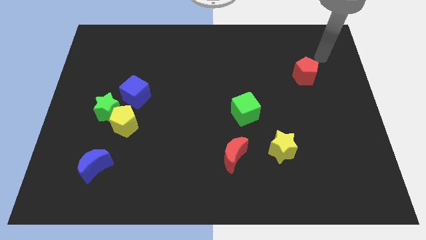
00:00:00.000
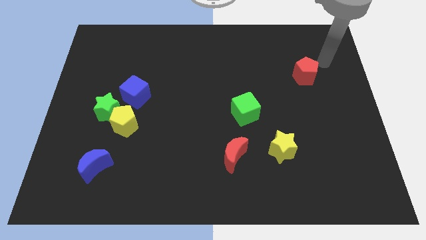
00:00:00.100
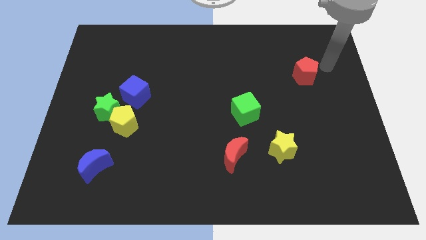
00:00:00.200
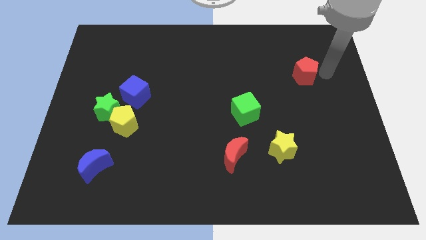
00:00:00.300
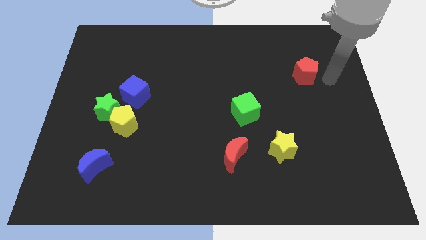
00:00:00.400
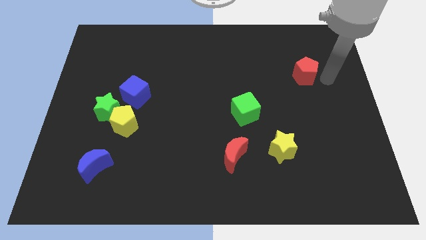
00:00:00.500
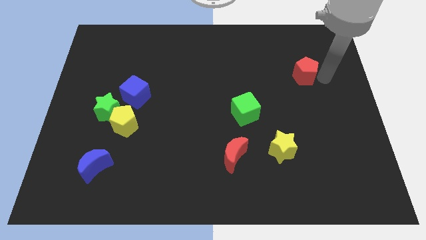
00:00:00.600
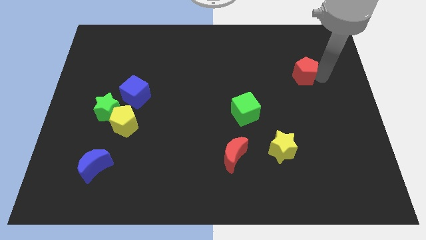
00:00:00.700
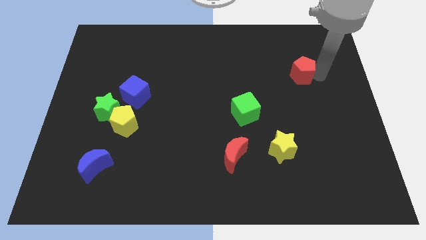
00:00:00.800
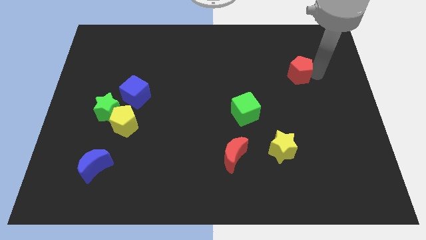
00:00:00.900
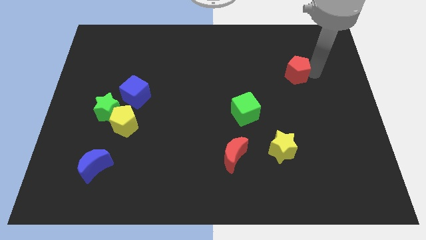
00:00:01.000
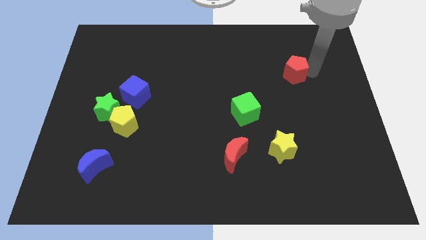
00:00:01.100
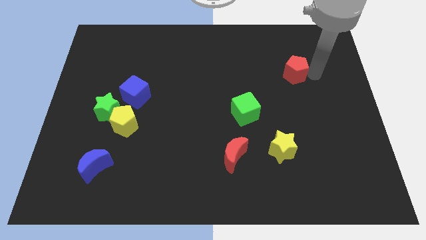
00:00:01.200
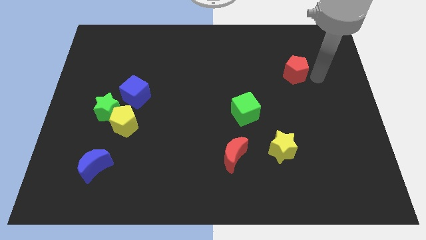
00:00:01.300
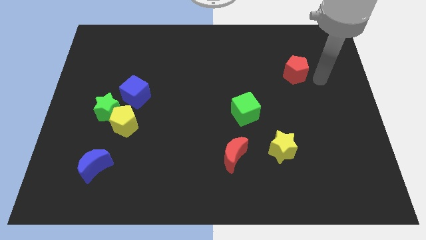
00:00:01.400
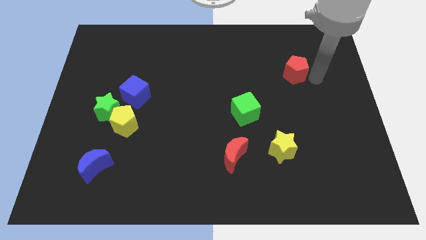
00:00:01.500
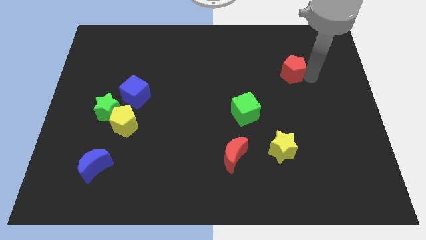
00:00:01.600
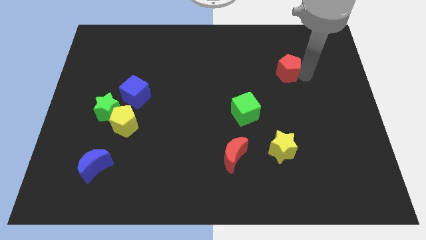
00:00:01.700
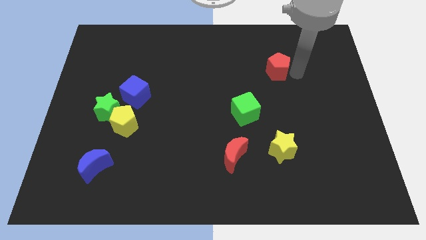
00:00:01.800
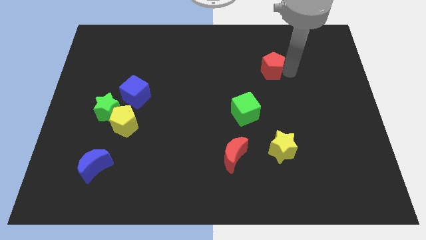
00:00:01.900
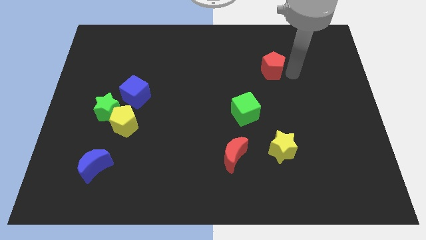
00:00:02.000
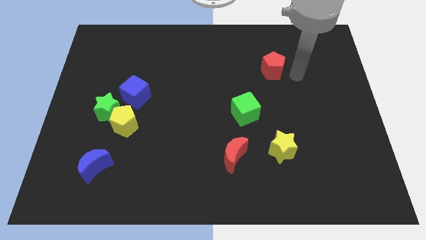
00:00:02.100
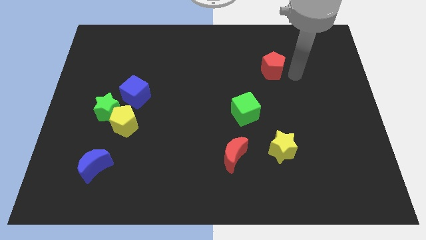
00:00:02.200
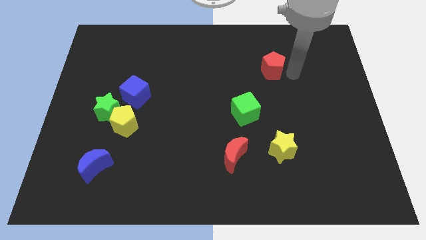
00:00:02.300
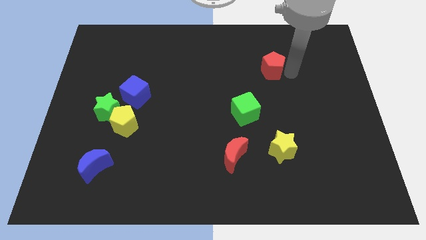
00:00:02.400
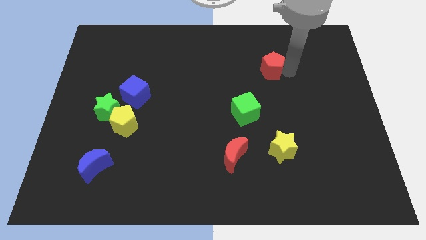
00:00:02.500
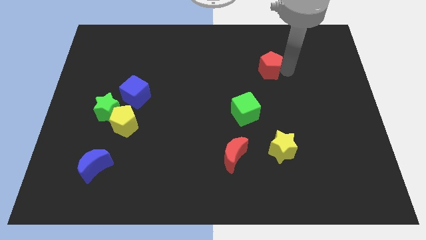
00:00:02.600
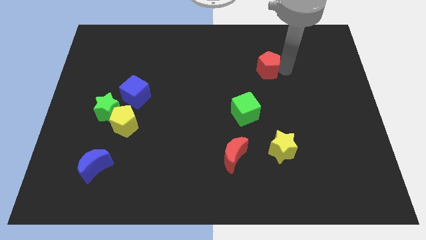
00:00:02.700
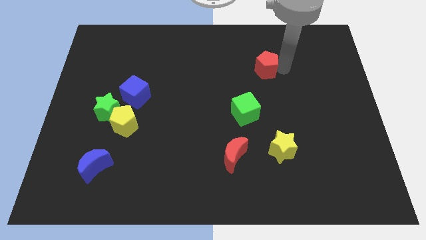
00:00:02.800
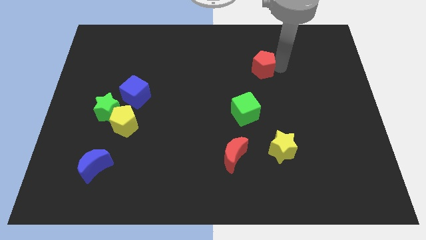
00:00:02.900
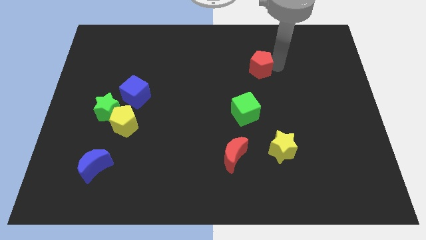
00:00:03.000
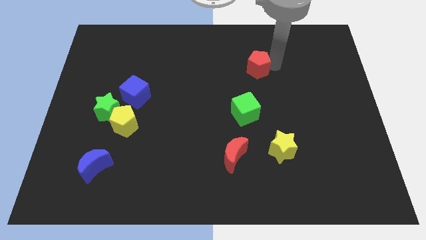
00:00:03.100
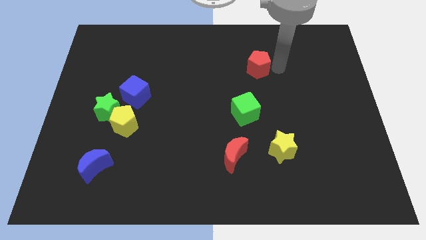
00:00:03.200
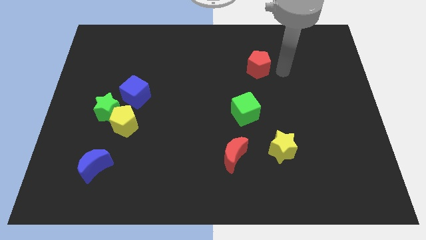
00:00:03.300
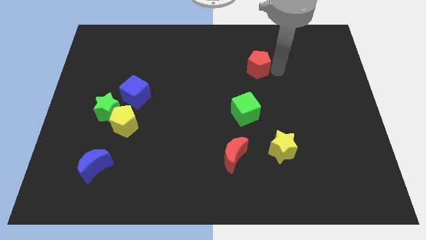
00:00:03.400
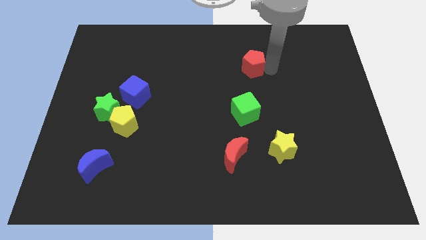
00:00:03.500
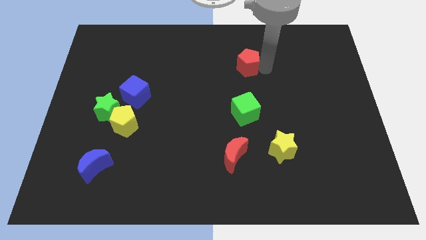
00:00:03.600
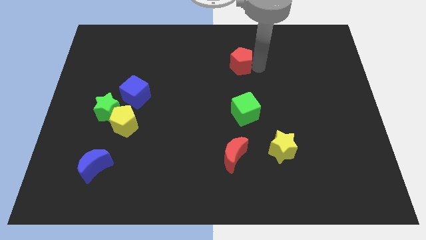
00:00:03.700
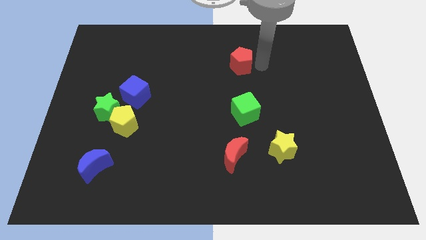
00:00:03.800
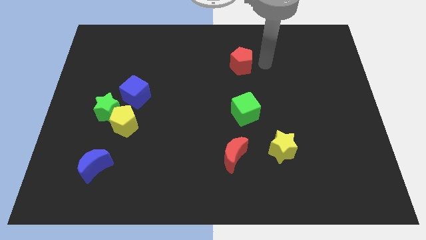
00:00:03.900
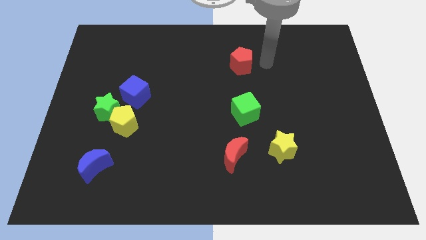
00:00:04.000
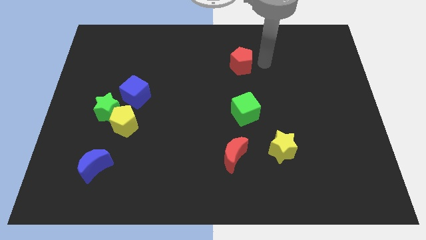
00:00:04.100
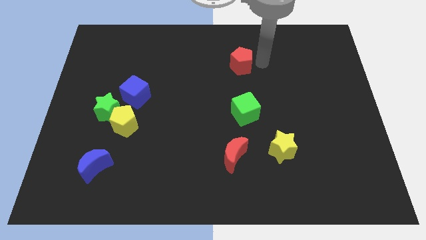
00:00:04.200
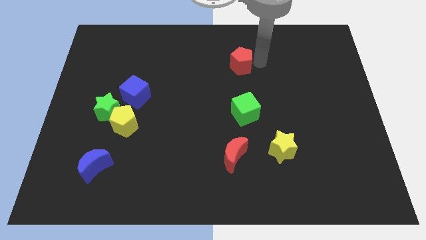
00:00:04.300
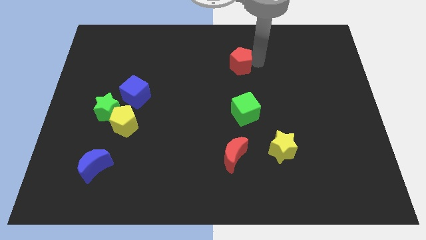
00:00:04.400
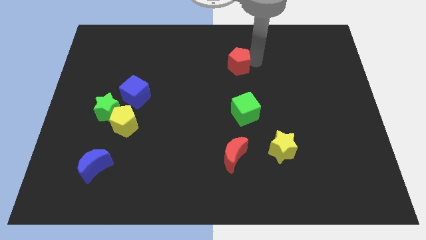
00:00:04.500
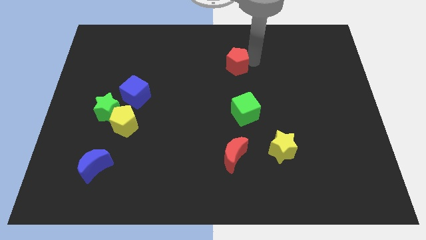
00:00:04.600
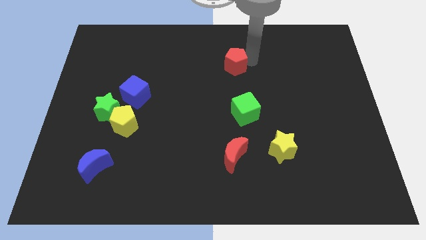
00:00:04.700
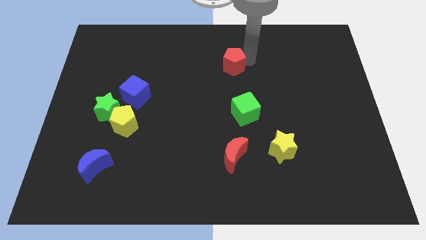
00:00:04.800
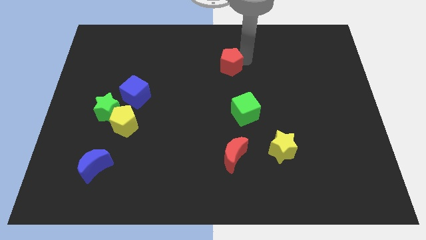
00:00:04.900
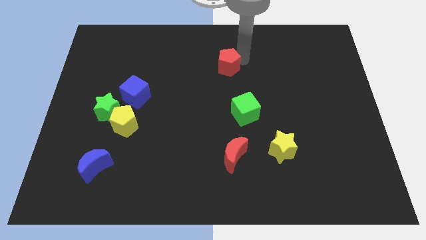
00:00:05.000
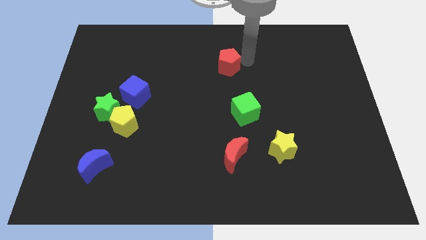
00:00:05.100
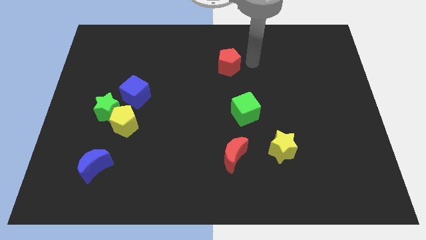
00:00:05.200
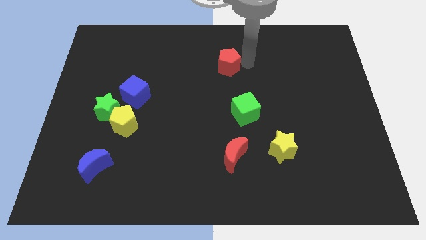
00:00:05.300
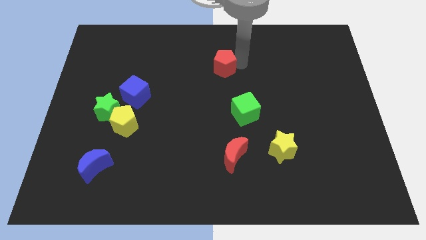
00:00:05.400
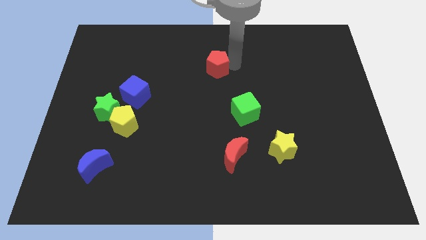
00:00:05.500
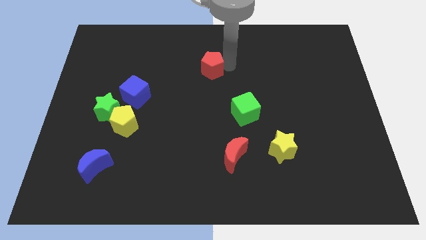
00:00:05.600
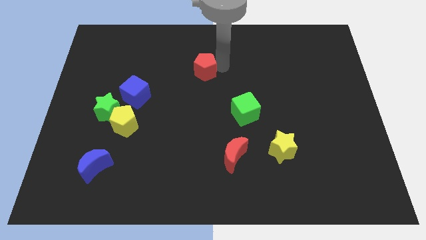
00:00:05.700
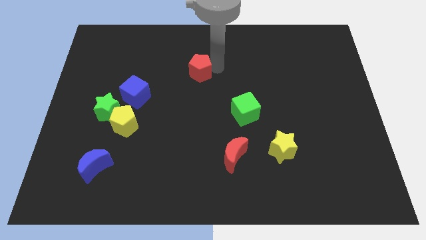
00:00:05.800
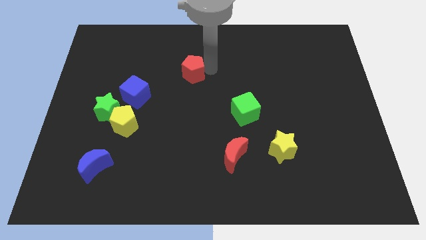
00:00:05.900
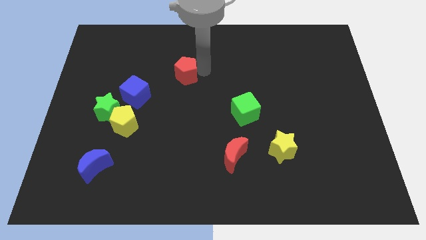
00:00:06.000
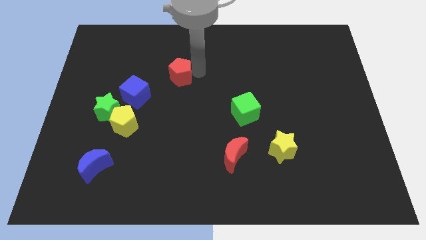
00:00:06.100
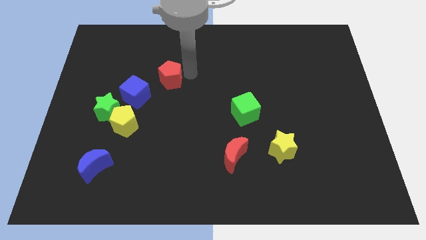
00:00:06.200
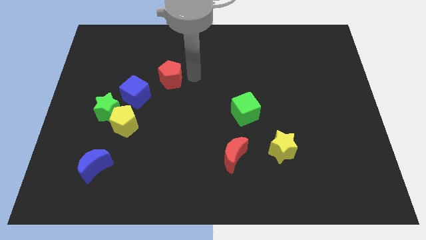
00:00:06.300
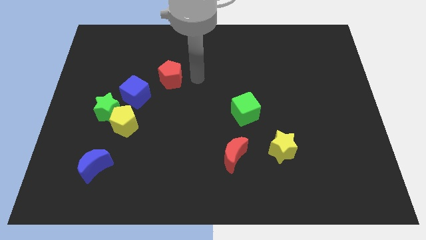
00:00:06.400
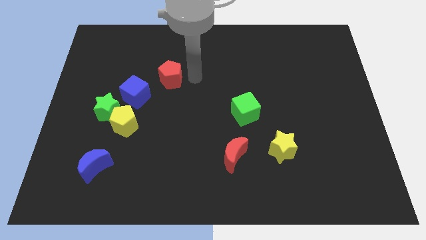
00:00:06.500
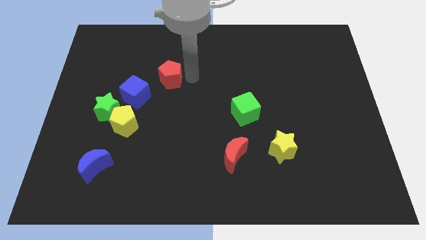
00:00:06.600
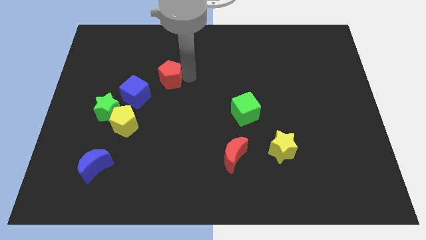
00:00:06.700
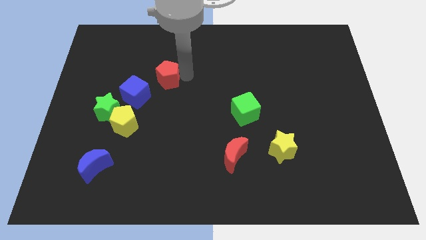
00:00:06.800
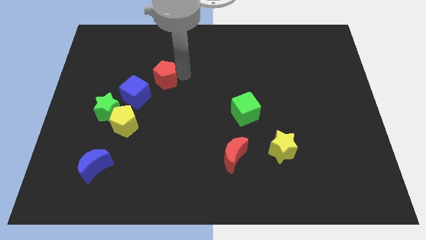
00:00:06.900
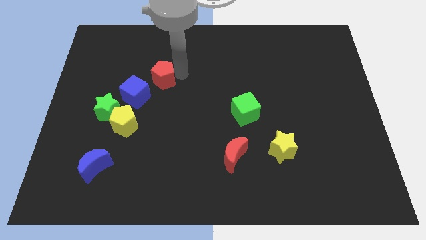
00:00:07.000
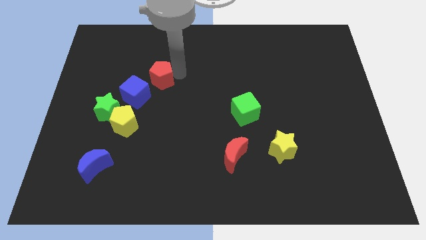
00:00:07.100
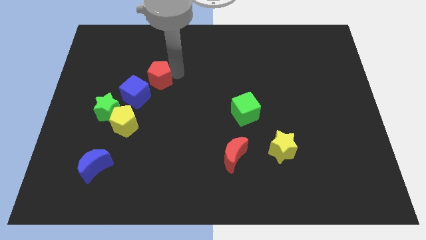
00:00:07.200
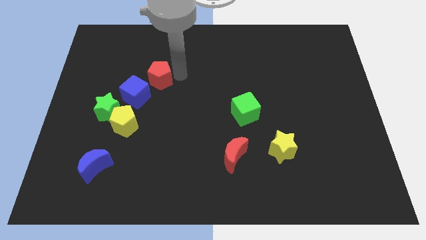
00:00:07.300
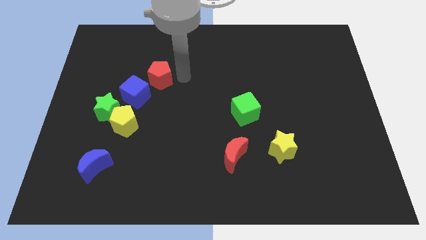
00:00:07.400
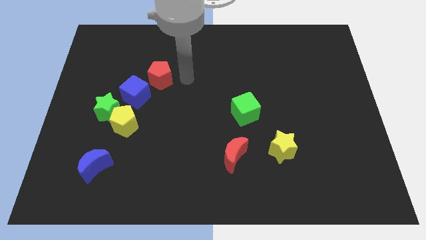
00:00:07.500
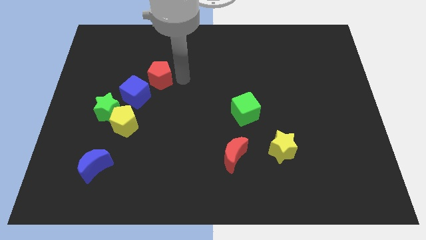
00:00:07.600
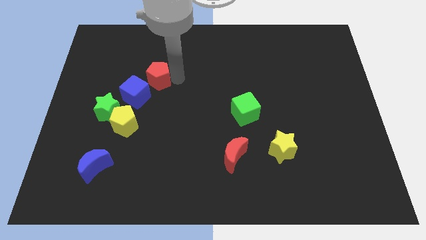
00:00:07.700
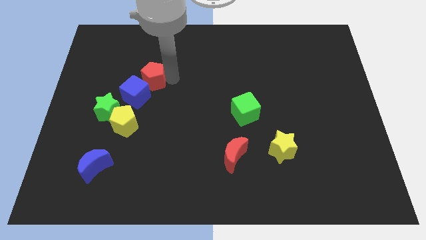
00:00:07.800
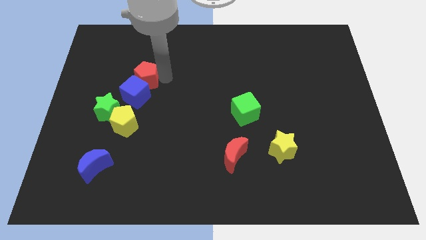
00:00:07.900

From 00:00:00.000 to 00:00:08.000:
push the red pentagon to the top side of the yellow pentagon

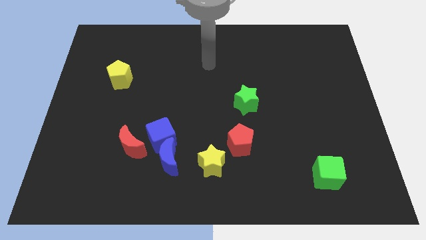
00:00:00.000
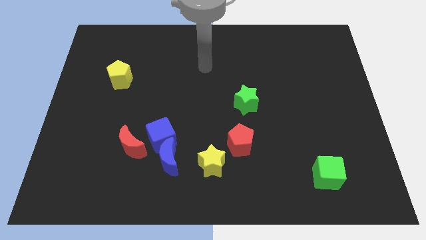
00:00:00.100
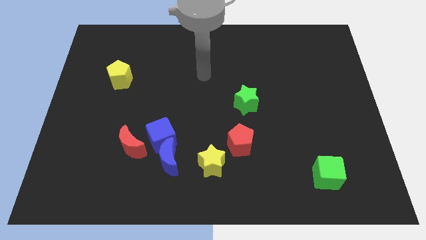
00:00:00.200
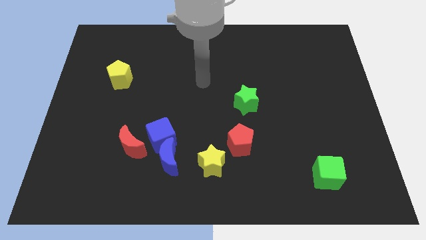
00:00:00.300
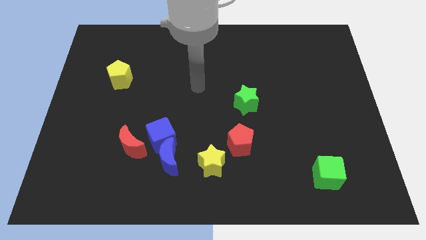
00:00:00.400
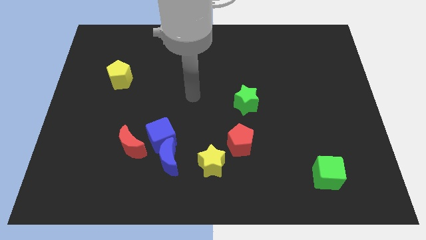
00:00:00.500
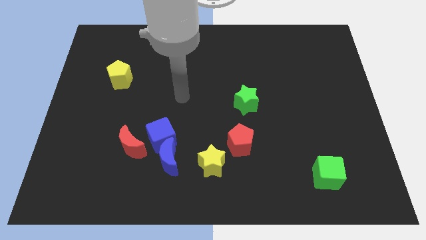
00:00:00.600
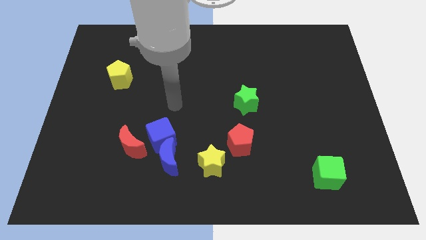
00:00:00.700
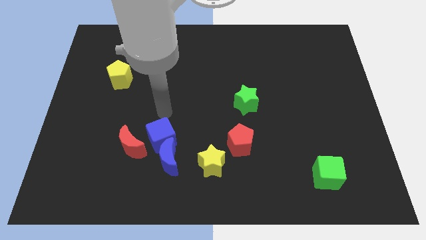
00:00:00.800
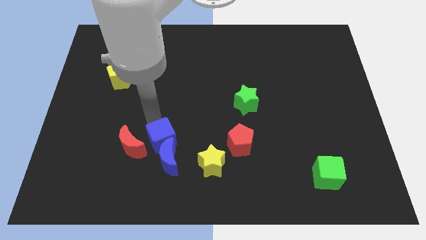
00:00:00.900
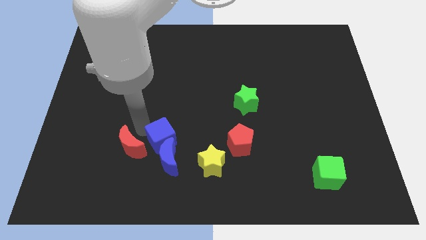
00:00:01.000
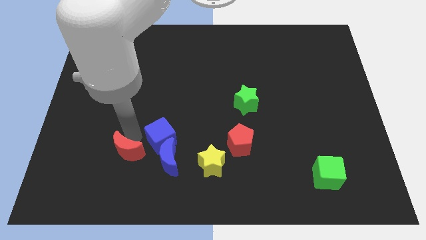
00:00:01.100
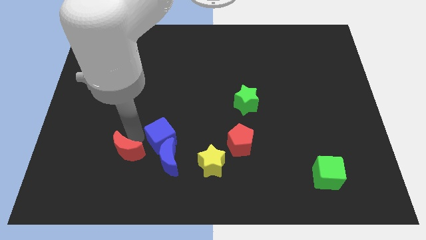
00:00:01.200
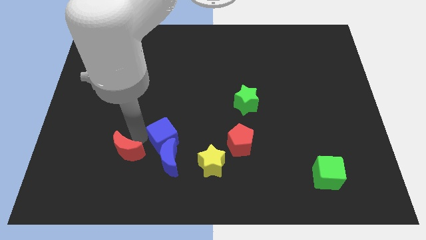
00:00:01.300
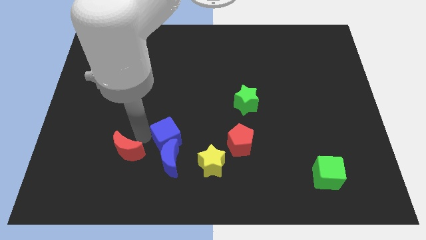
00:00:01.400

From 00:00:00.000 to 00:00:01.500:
push the blue cube to the top right of the blue moon
